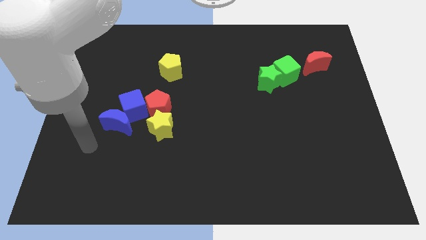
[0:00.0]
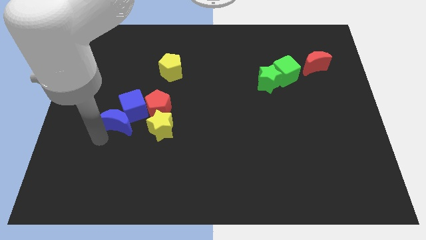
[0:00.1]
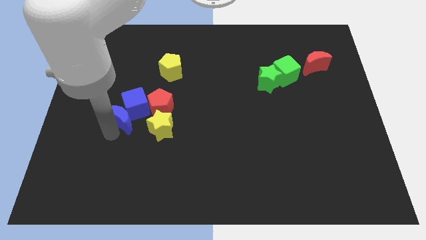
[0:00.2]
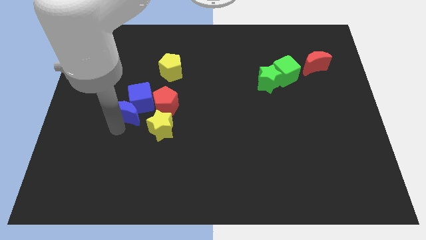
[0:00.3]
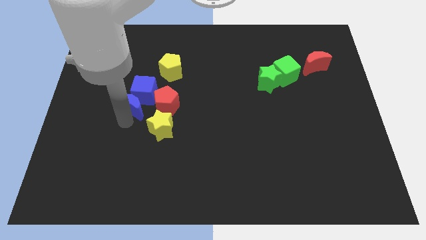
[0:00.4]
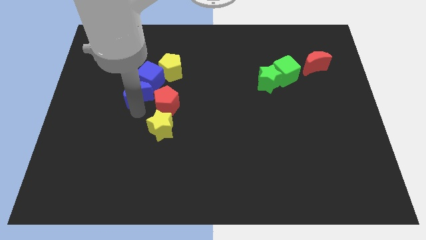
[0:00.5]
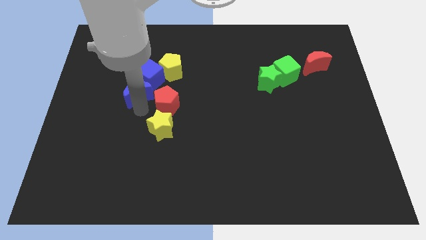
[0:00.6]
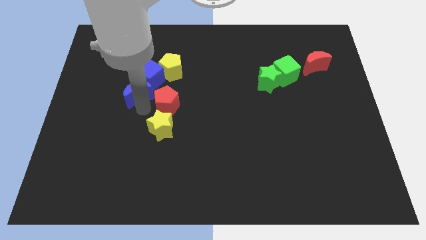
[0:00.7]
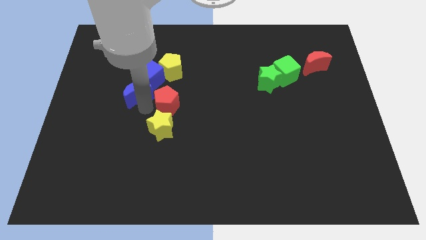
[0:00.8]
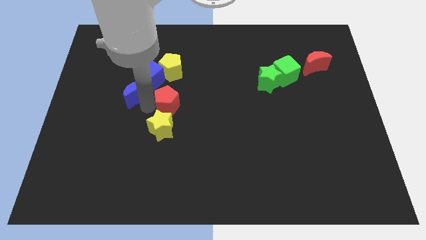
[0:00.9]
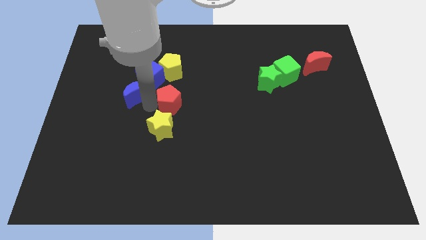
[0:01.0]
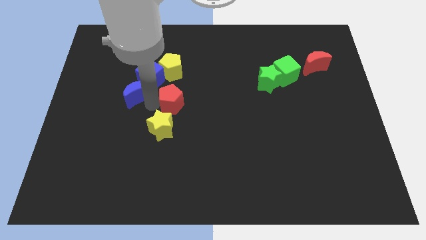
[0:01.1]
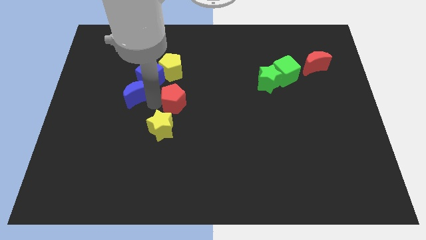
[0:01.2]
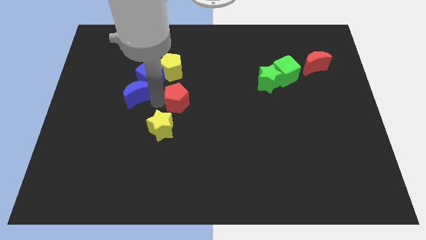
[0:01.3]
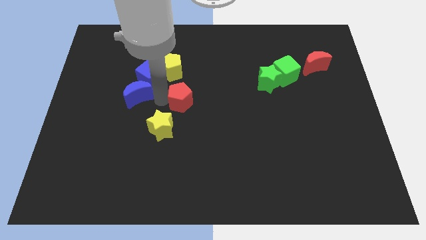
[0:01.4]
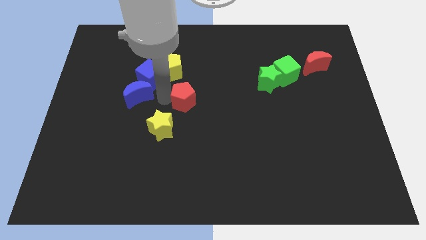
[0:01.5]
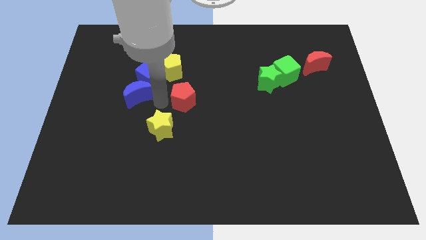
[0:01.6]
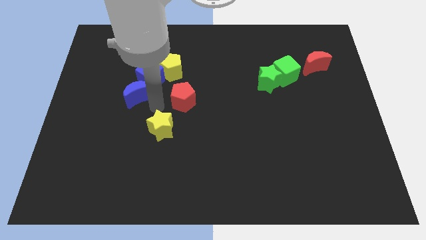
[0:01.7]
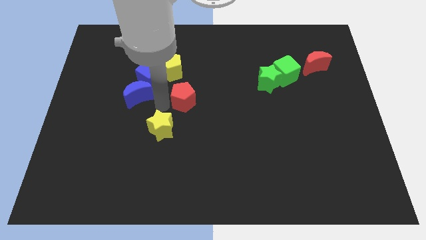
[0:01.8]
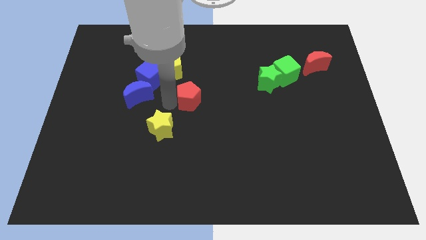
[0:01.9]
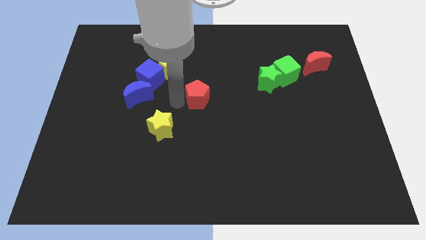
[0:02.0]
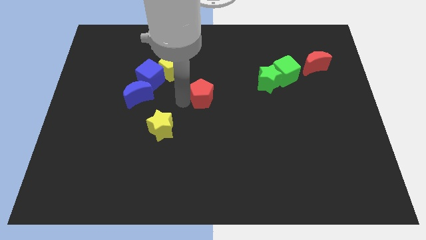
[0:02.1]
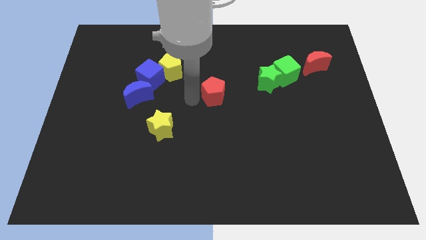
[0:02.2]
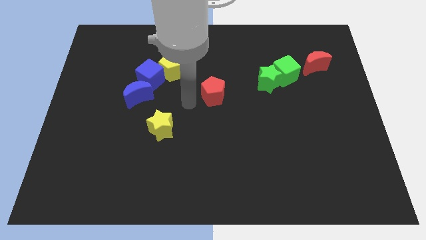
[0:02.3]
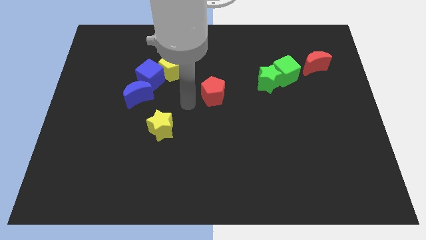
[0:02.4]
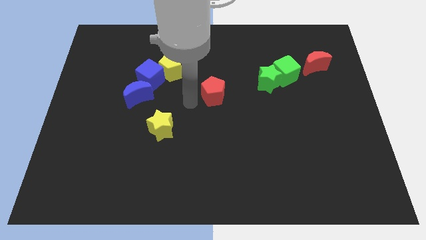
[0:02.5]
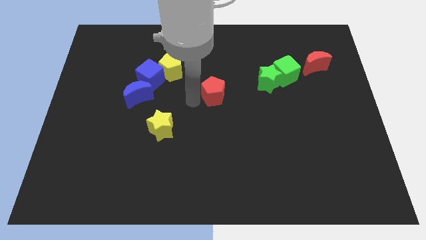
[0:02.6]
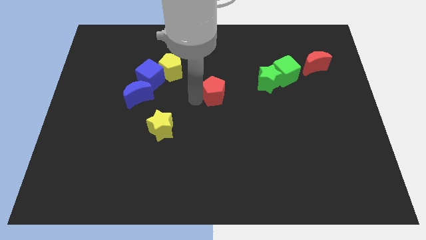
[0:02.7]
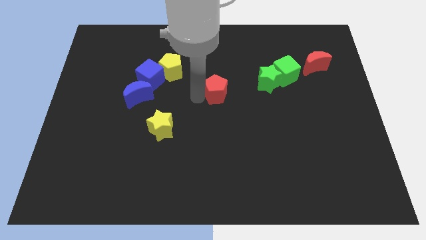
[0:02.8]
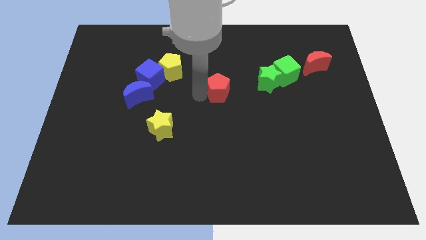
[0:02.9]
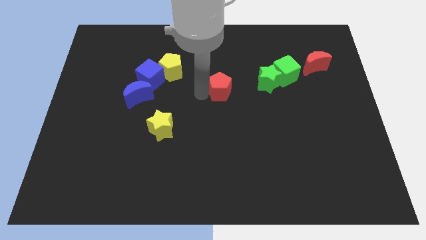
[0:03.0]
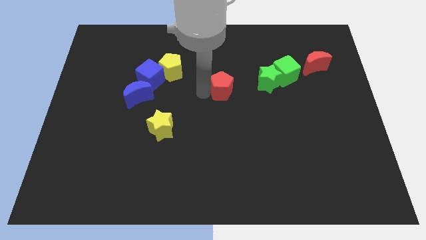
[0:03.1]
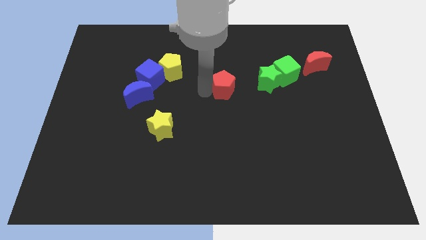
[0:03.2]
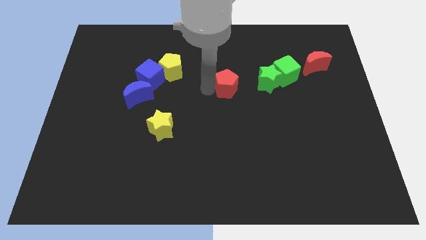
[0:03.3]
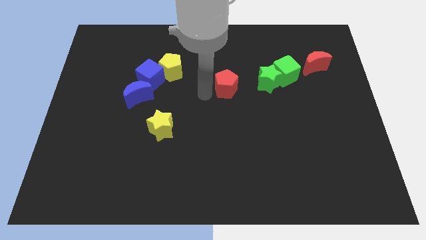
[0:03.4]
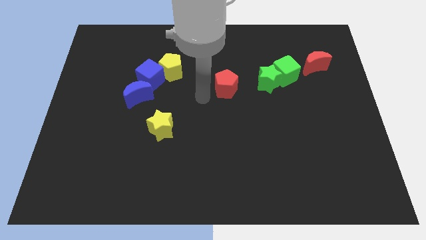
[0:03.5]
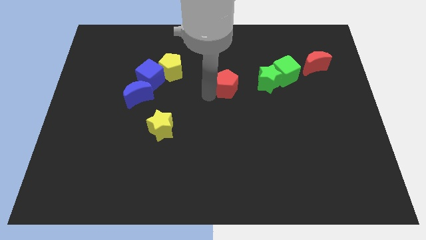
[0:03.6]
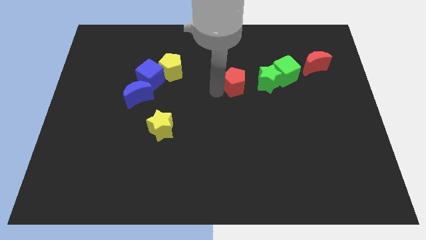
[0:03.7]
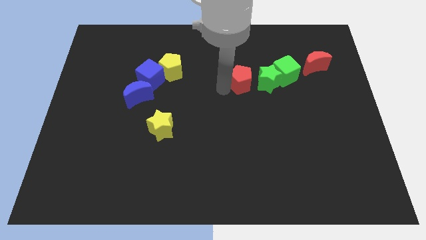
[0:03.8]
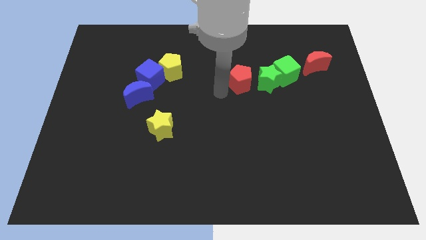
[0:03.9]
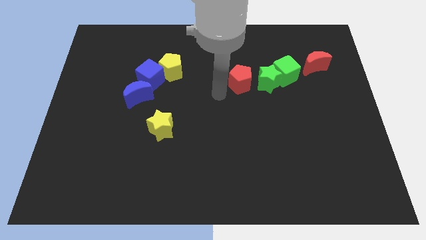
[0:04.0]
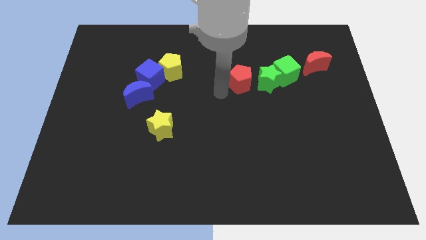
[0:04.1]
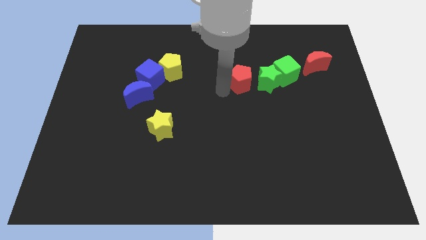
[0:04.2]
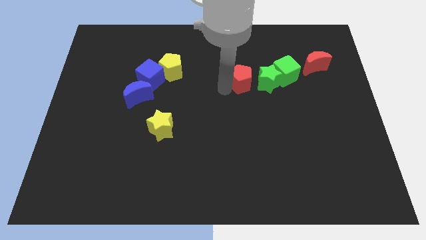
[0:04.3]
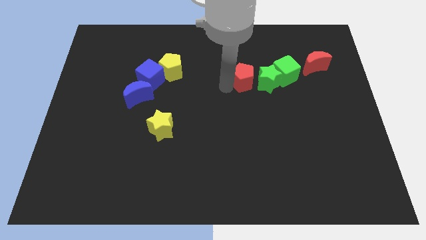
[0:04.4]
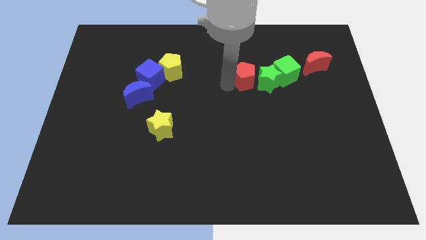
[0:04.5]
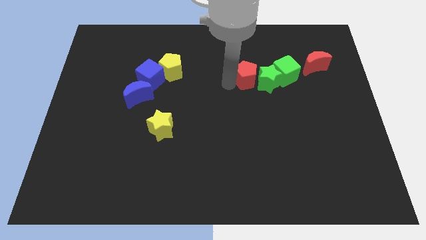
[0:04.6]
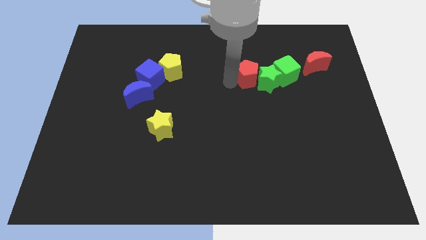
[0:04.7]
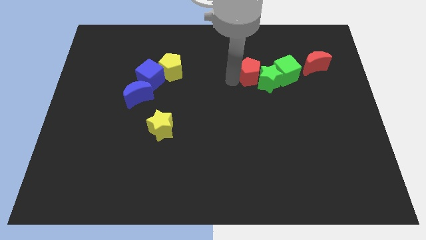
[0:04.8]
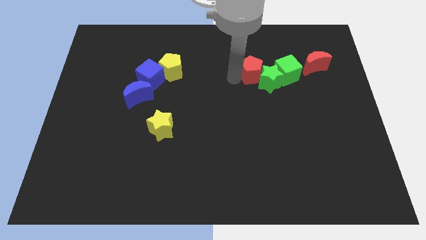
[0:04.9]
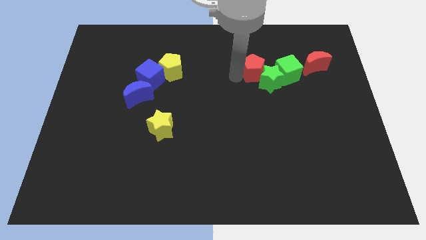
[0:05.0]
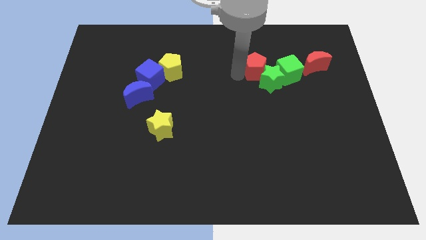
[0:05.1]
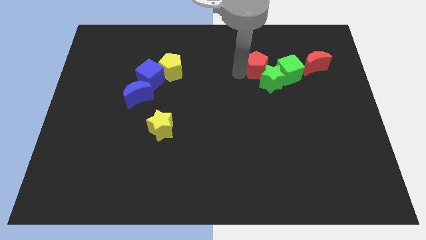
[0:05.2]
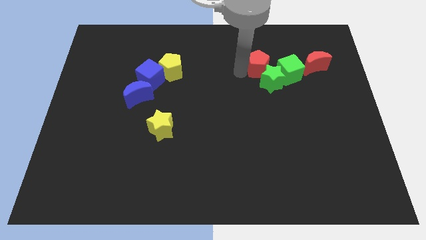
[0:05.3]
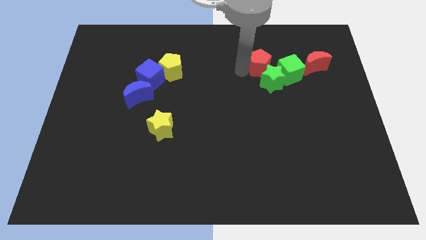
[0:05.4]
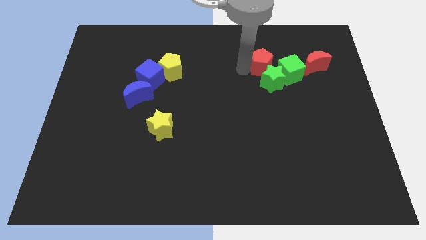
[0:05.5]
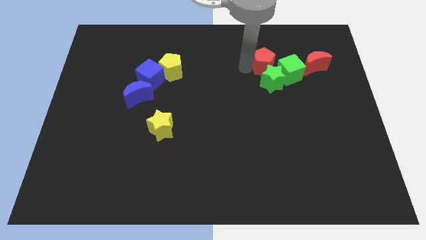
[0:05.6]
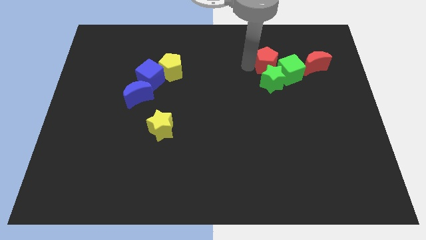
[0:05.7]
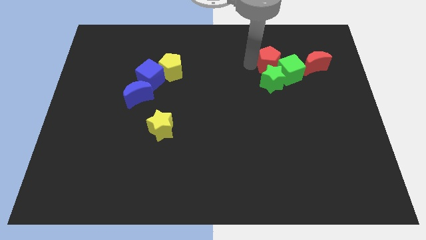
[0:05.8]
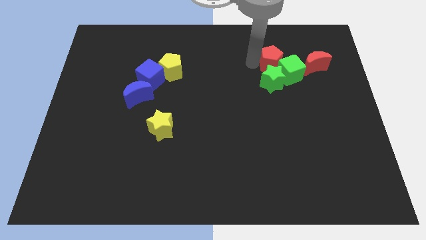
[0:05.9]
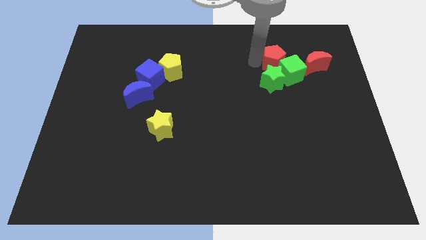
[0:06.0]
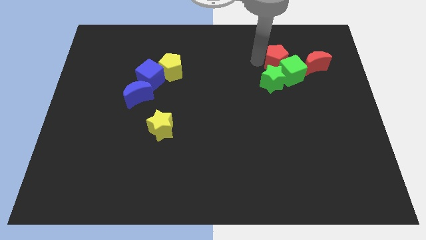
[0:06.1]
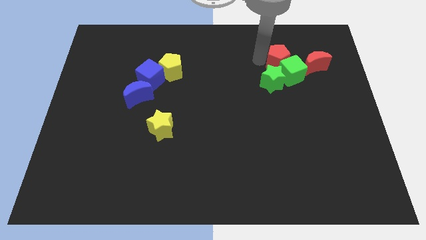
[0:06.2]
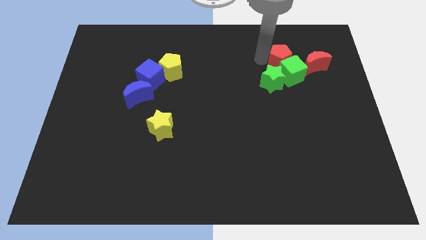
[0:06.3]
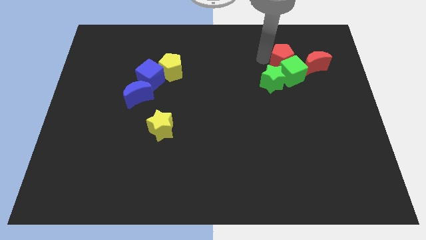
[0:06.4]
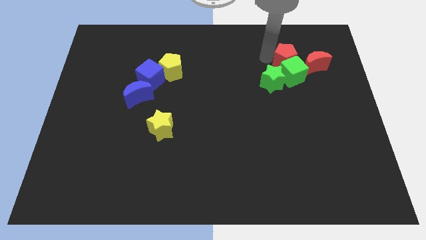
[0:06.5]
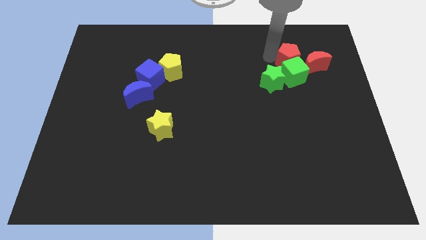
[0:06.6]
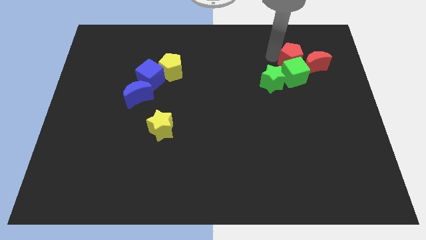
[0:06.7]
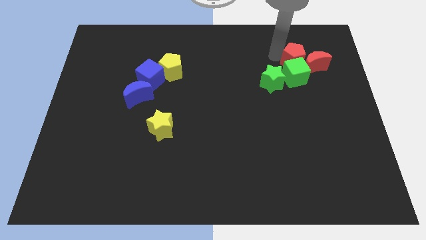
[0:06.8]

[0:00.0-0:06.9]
put the red pentagon towards the red moon
